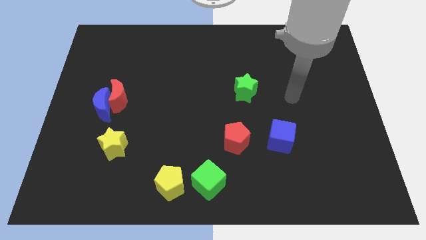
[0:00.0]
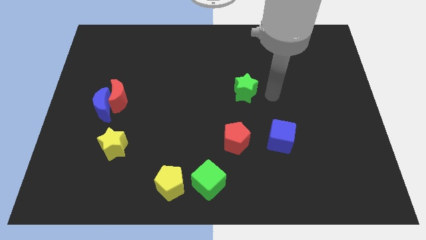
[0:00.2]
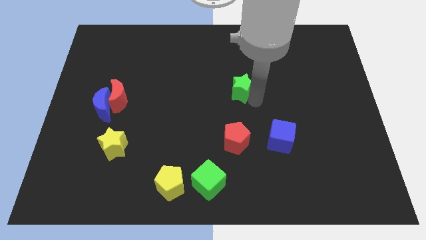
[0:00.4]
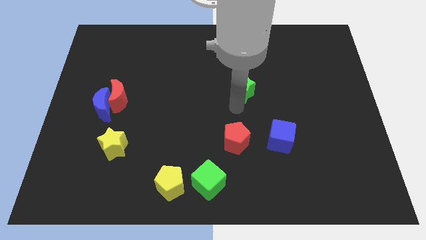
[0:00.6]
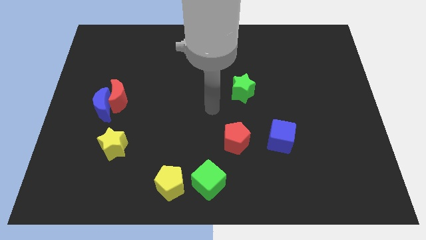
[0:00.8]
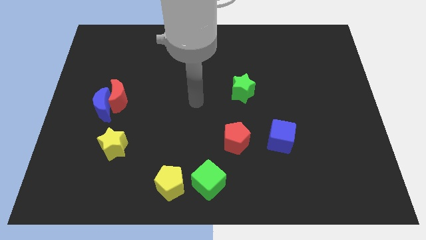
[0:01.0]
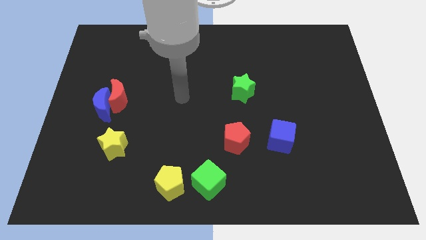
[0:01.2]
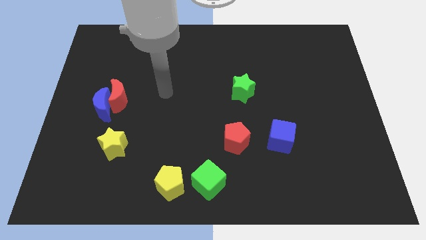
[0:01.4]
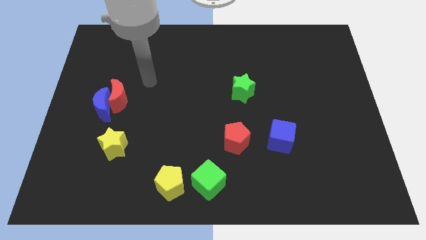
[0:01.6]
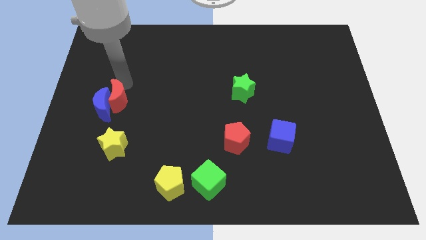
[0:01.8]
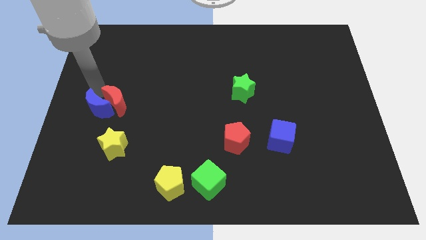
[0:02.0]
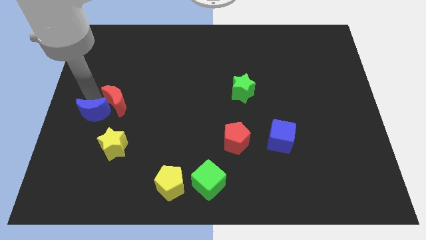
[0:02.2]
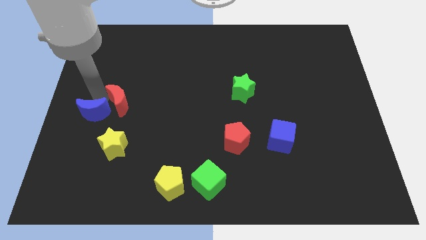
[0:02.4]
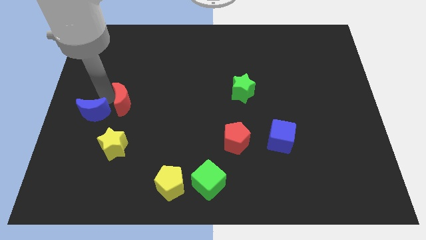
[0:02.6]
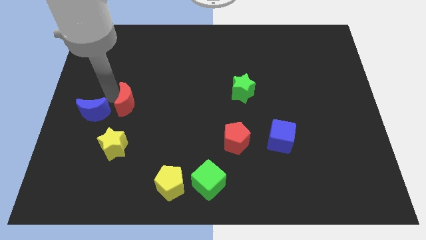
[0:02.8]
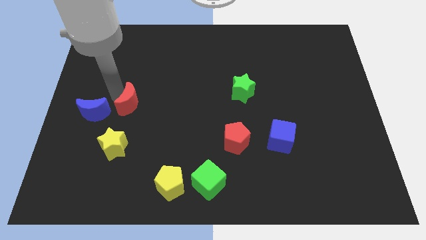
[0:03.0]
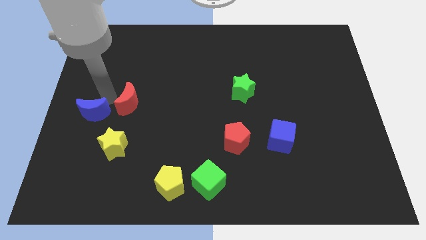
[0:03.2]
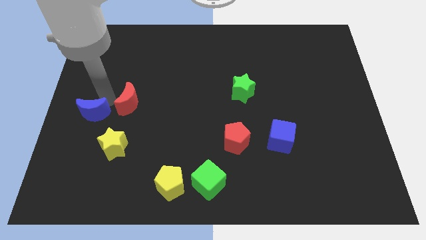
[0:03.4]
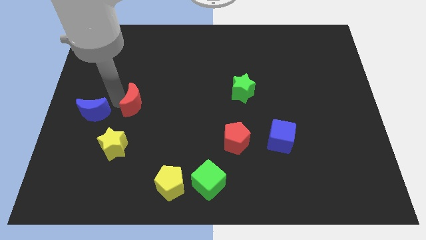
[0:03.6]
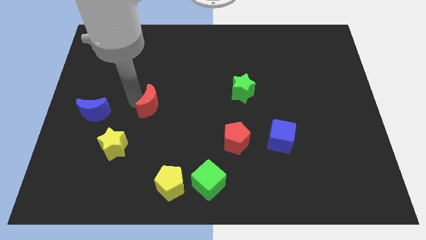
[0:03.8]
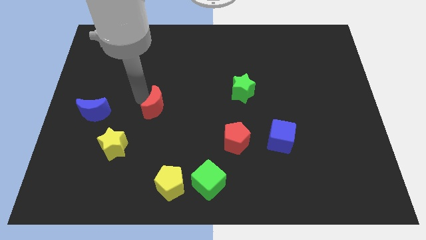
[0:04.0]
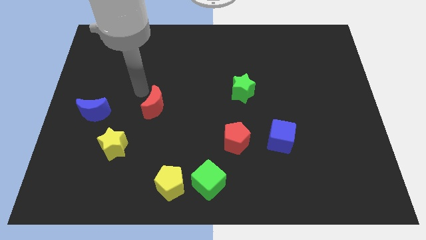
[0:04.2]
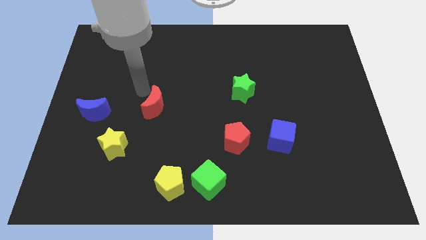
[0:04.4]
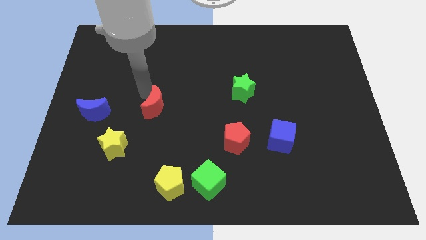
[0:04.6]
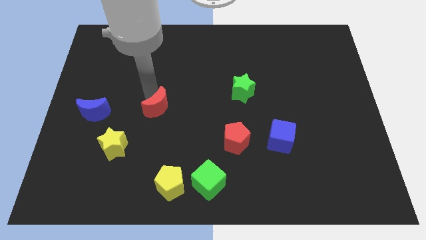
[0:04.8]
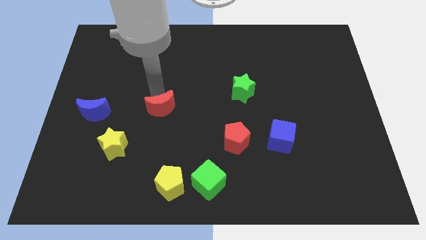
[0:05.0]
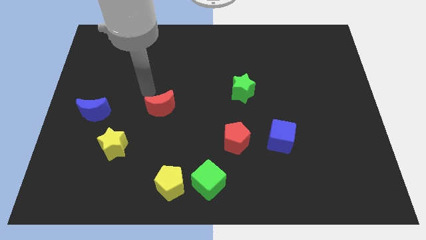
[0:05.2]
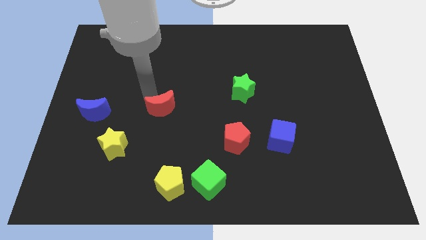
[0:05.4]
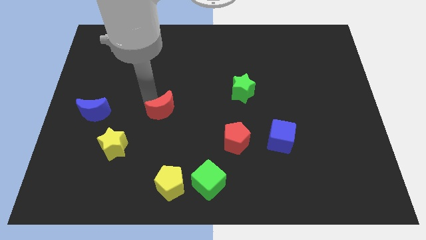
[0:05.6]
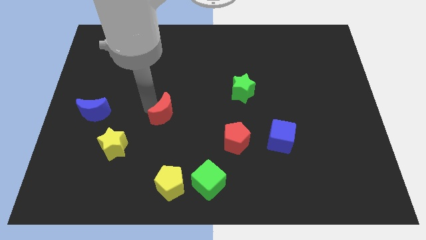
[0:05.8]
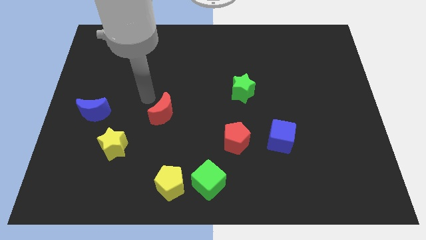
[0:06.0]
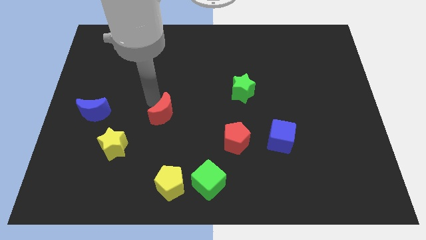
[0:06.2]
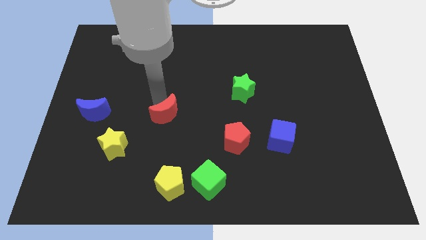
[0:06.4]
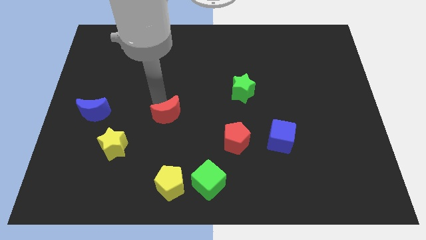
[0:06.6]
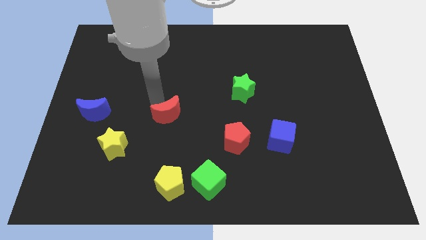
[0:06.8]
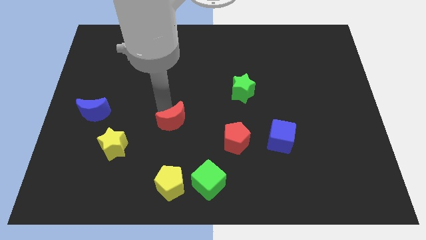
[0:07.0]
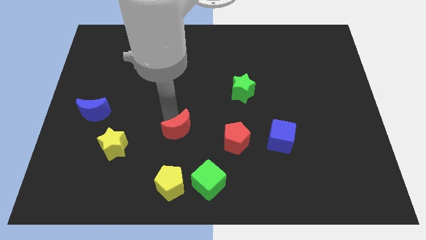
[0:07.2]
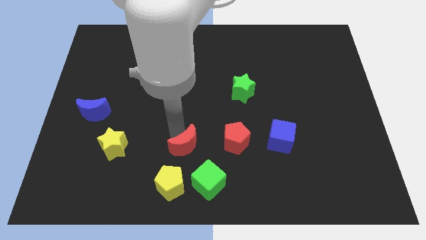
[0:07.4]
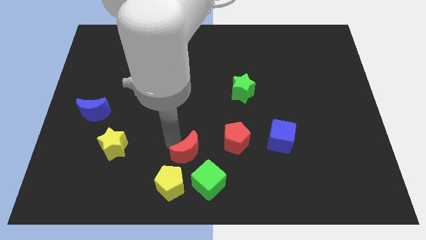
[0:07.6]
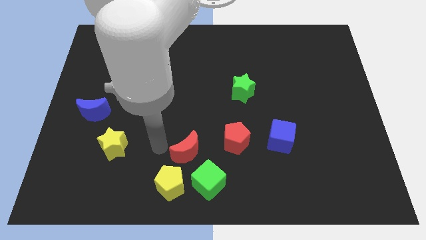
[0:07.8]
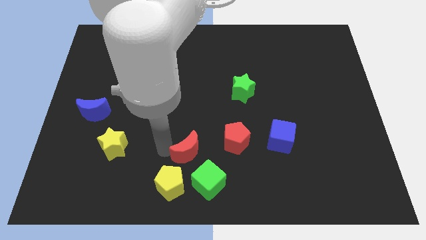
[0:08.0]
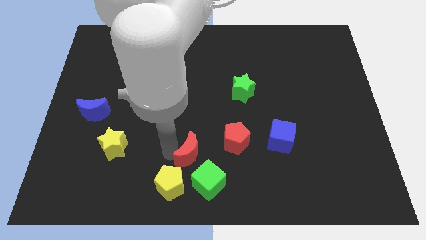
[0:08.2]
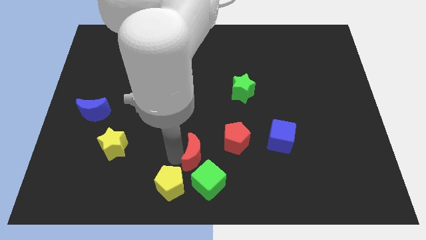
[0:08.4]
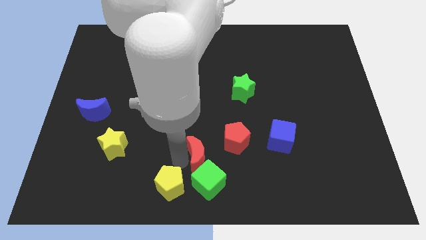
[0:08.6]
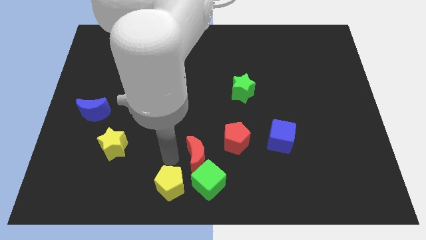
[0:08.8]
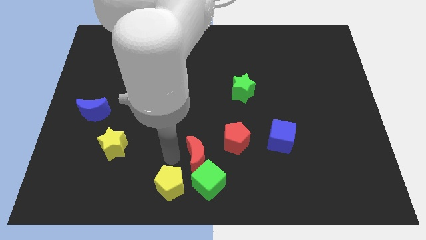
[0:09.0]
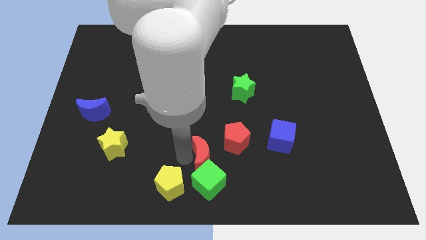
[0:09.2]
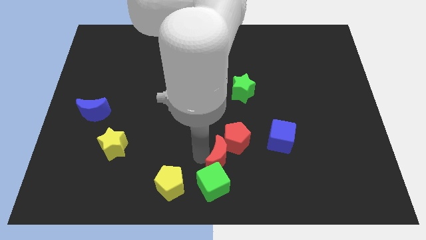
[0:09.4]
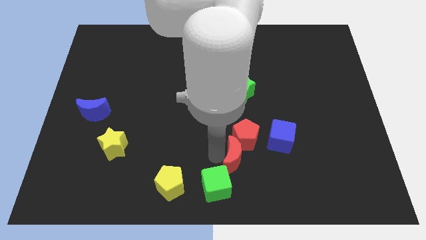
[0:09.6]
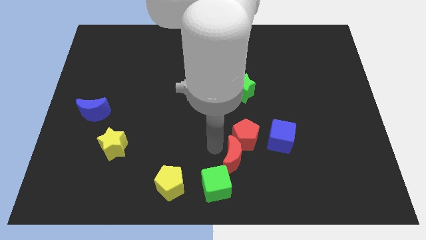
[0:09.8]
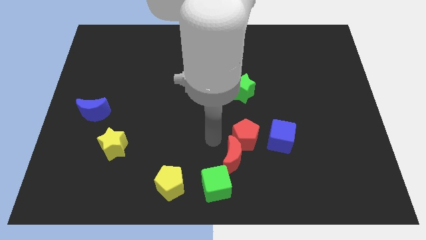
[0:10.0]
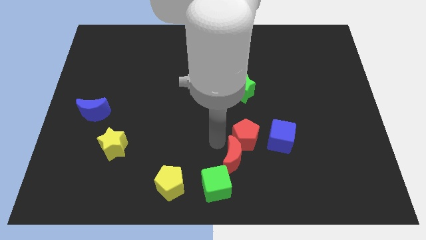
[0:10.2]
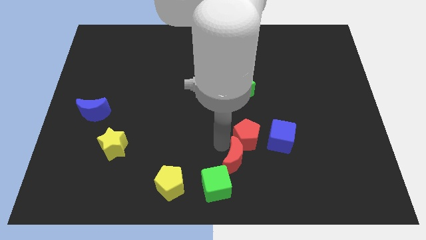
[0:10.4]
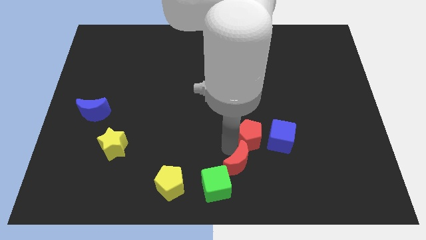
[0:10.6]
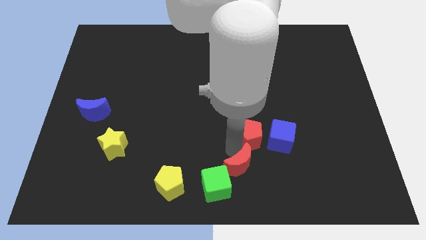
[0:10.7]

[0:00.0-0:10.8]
move the red moon to the right side of the green cube

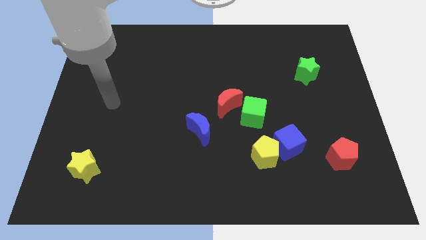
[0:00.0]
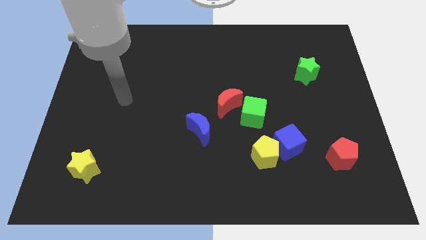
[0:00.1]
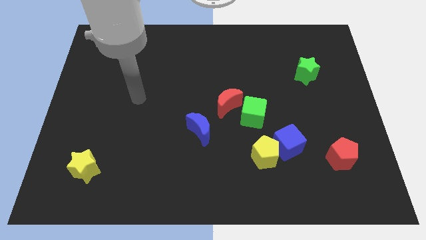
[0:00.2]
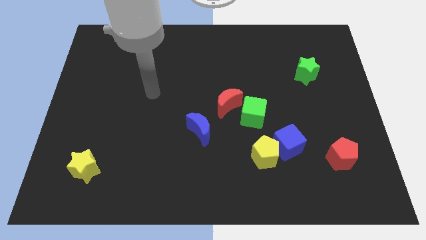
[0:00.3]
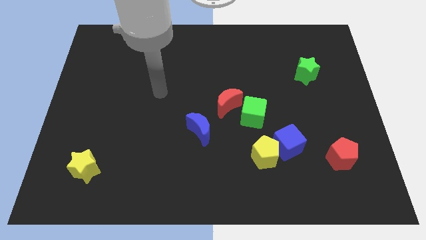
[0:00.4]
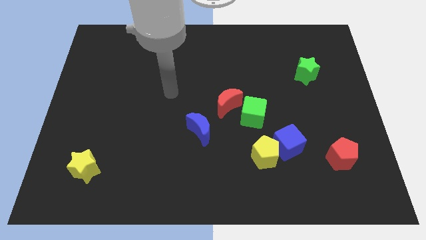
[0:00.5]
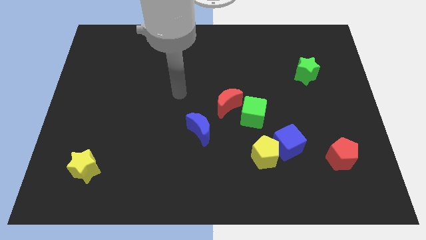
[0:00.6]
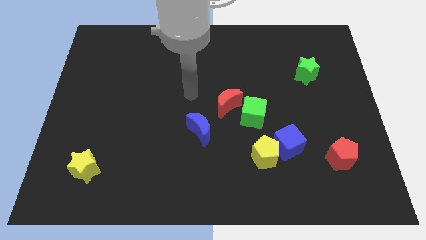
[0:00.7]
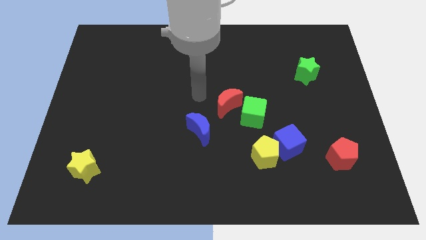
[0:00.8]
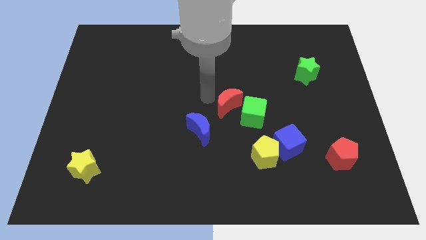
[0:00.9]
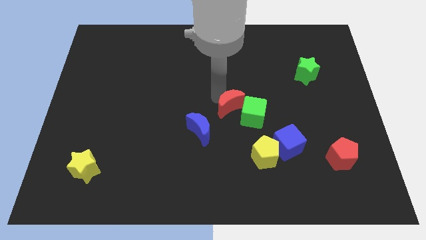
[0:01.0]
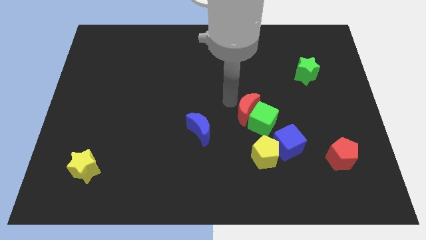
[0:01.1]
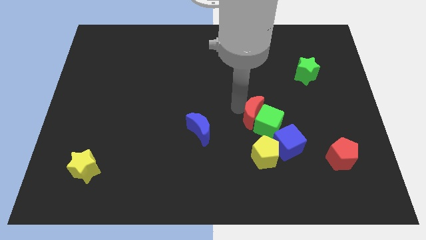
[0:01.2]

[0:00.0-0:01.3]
put the green cube diagonally up and to the right of the yellow pentagon
